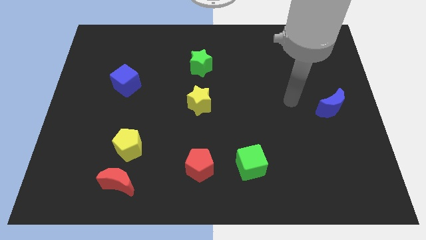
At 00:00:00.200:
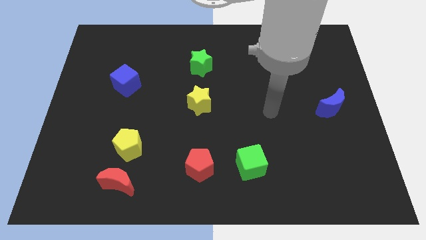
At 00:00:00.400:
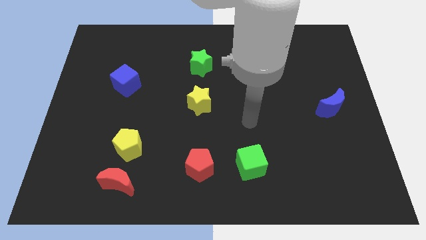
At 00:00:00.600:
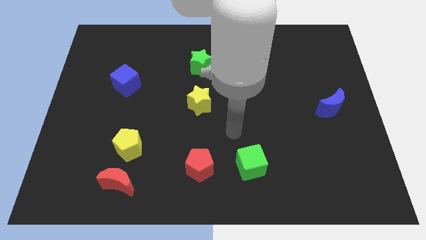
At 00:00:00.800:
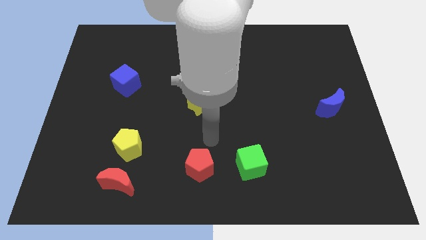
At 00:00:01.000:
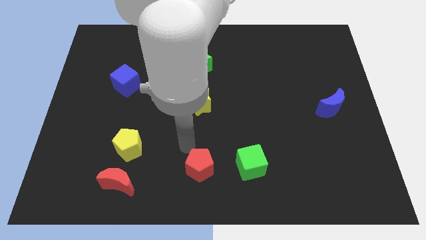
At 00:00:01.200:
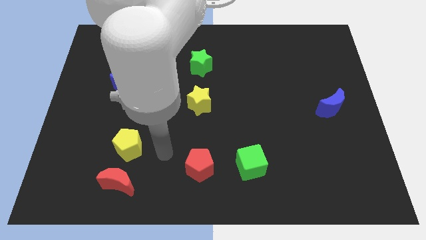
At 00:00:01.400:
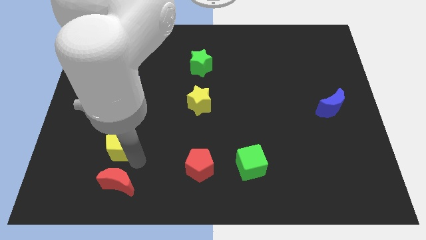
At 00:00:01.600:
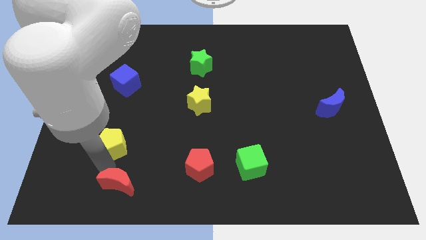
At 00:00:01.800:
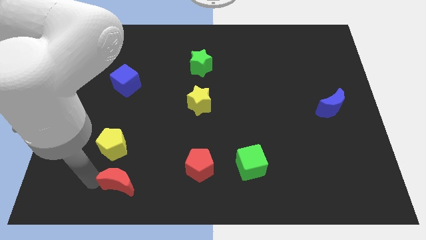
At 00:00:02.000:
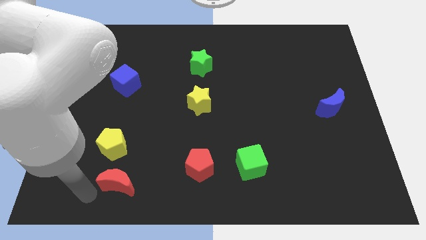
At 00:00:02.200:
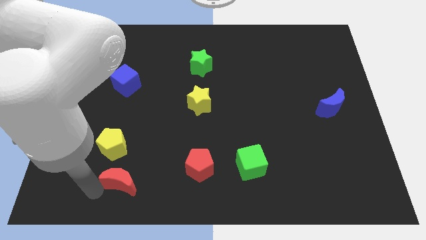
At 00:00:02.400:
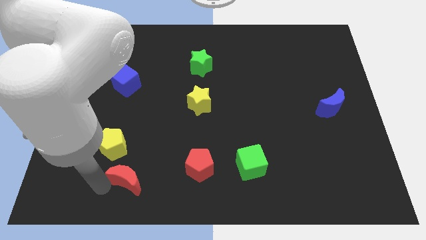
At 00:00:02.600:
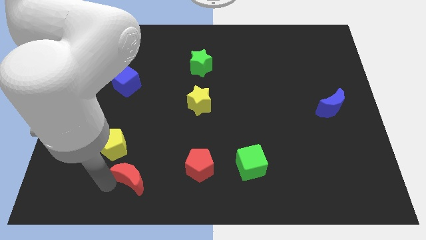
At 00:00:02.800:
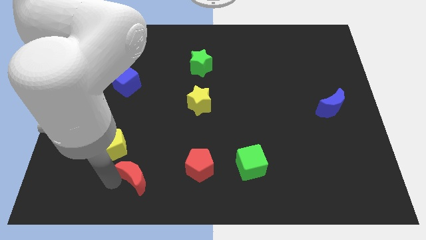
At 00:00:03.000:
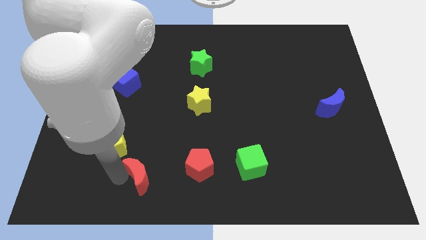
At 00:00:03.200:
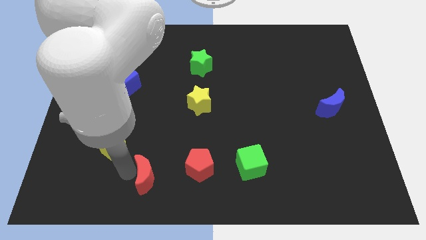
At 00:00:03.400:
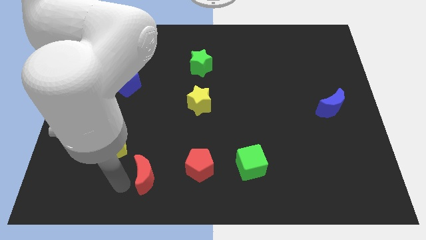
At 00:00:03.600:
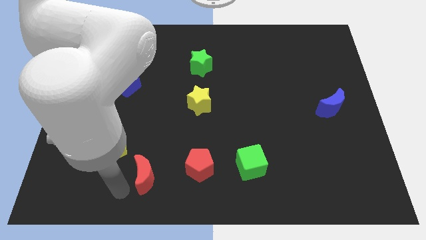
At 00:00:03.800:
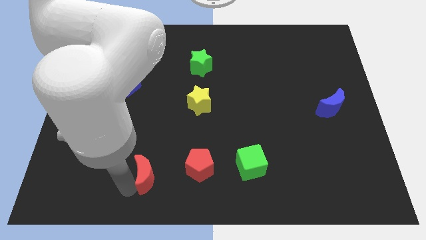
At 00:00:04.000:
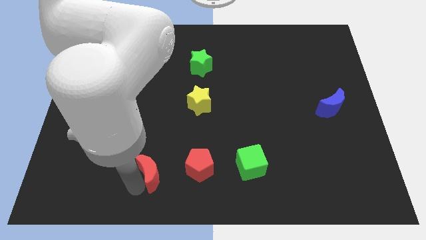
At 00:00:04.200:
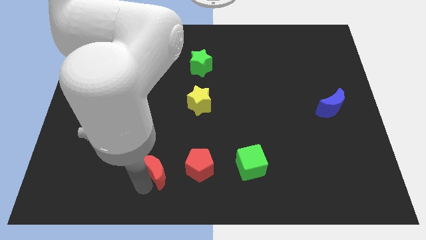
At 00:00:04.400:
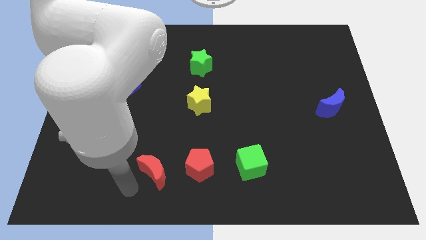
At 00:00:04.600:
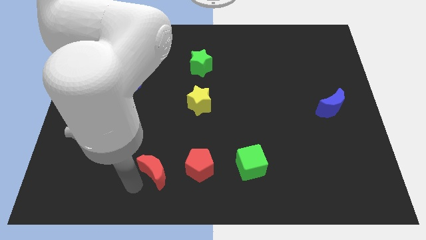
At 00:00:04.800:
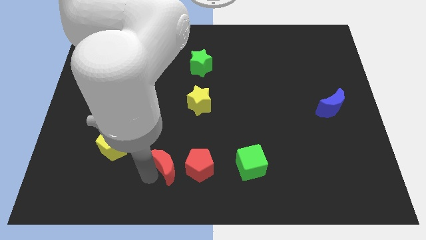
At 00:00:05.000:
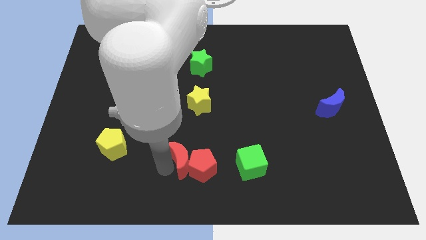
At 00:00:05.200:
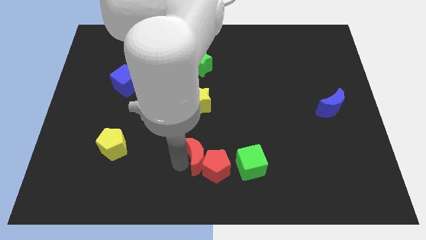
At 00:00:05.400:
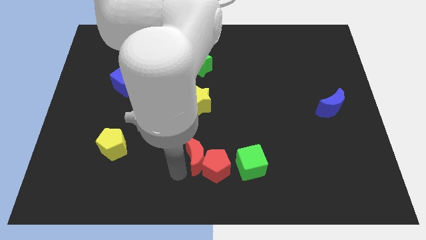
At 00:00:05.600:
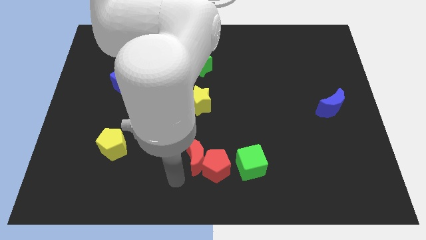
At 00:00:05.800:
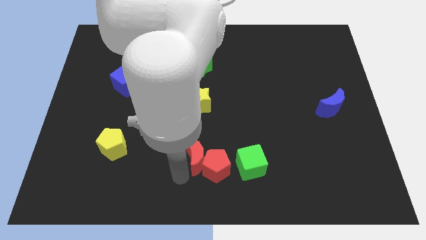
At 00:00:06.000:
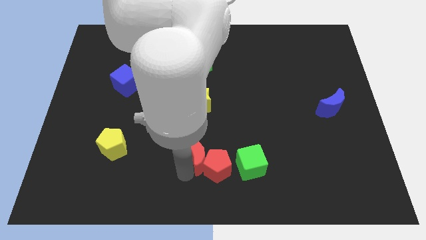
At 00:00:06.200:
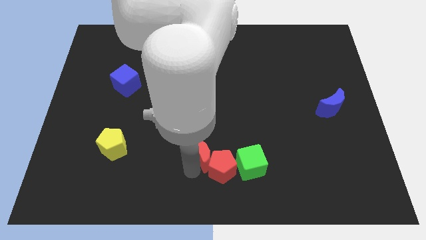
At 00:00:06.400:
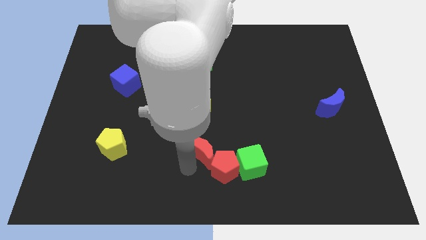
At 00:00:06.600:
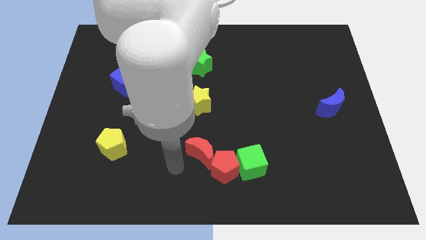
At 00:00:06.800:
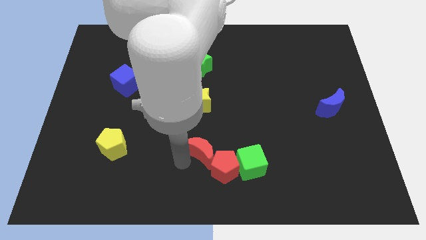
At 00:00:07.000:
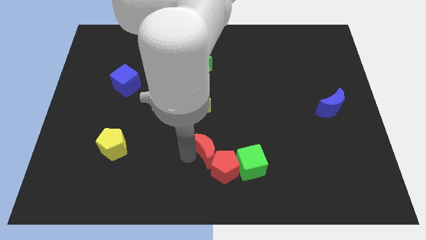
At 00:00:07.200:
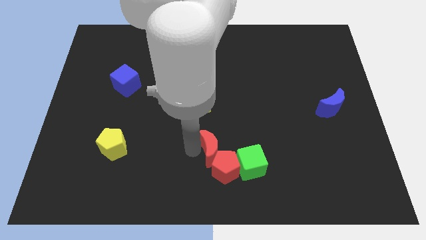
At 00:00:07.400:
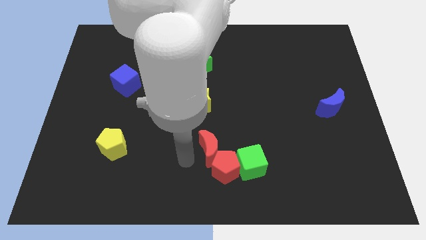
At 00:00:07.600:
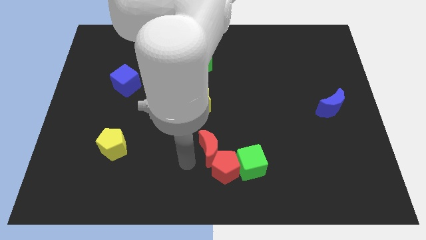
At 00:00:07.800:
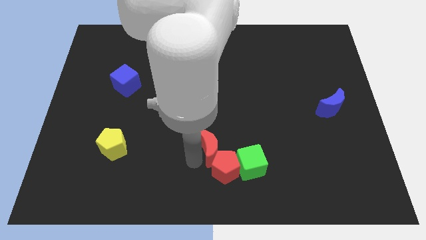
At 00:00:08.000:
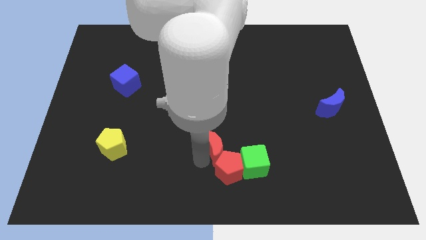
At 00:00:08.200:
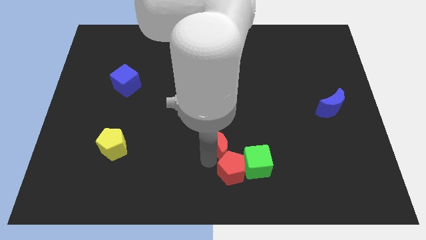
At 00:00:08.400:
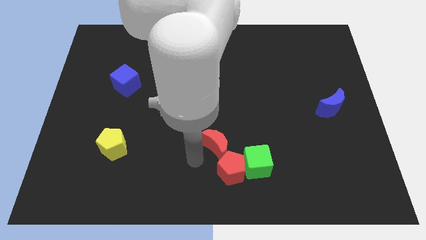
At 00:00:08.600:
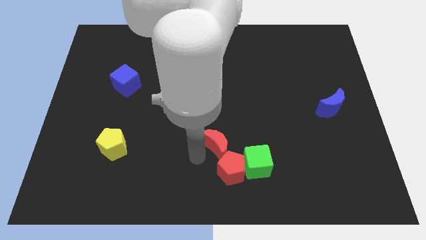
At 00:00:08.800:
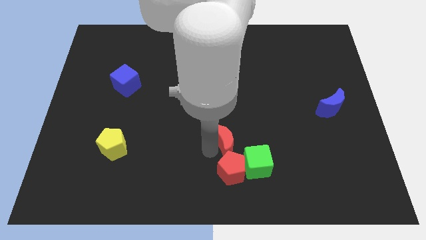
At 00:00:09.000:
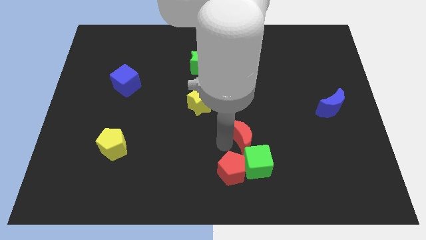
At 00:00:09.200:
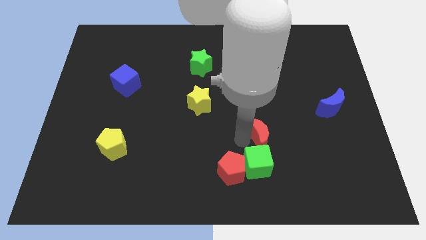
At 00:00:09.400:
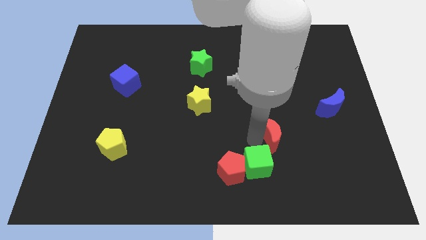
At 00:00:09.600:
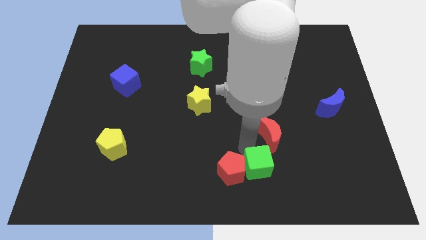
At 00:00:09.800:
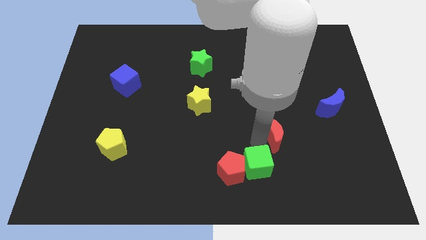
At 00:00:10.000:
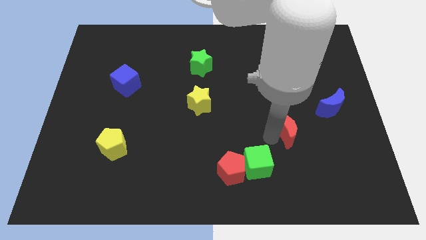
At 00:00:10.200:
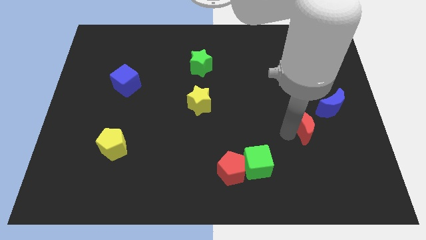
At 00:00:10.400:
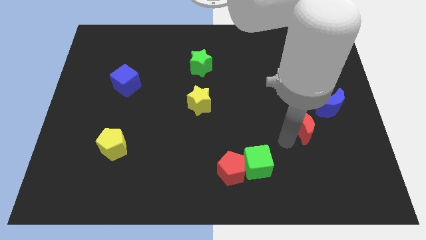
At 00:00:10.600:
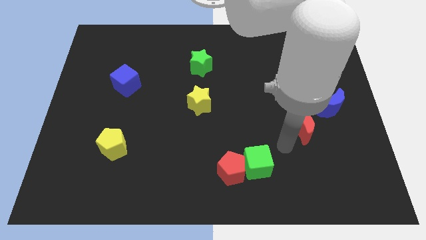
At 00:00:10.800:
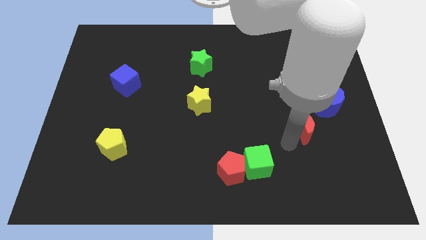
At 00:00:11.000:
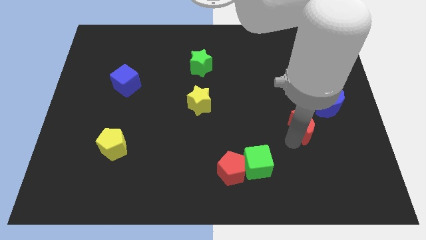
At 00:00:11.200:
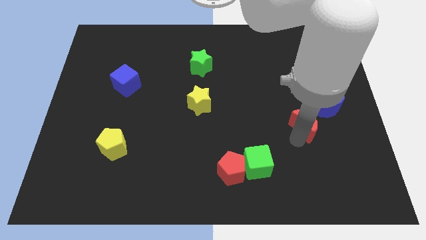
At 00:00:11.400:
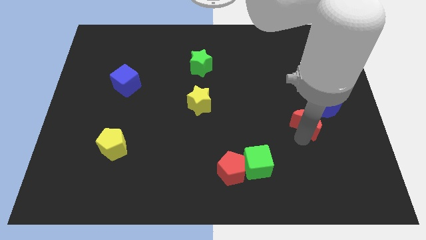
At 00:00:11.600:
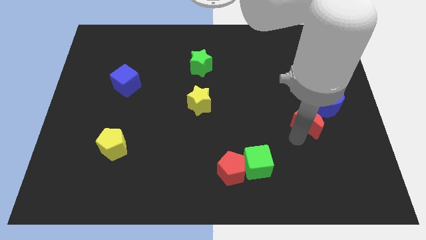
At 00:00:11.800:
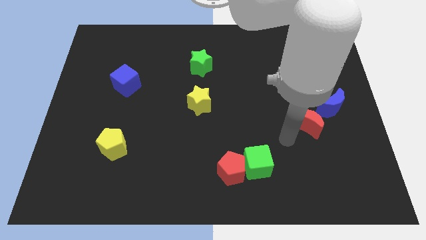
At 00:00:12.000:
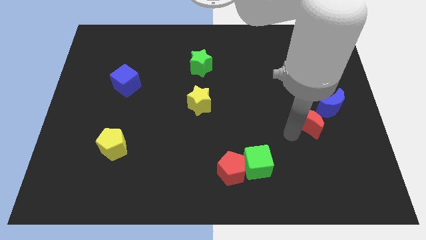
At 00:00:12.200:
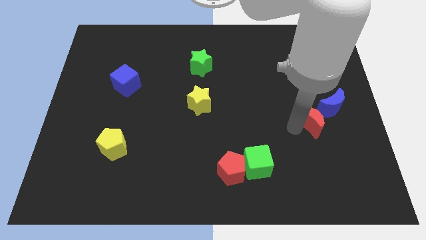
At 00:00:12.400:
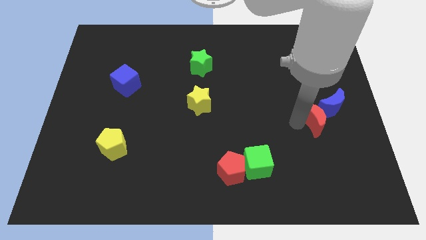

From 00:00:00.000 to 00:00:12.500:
slide the red moon close to the blue moon
